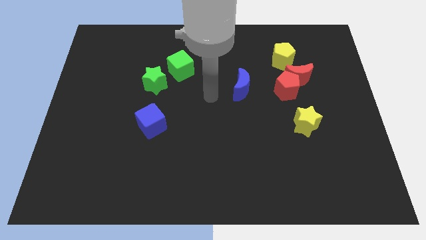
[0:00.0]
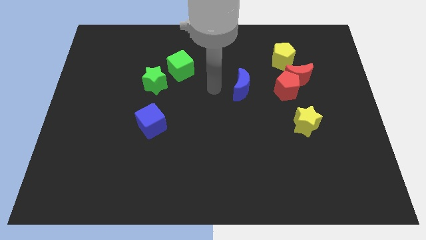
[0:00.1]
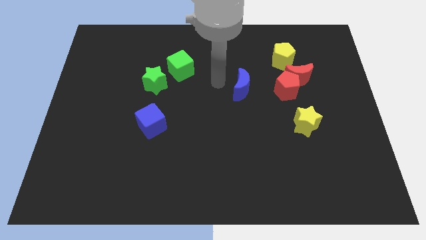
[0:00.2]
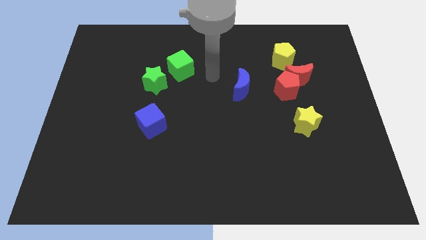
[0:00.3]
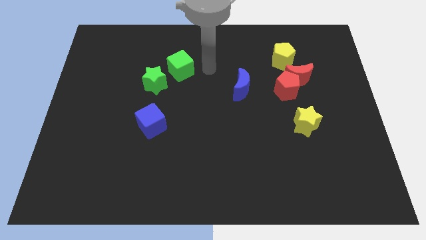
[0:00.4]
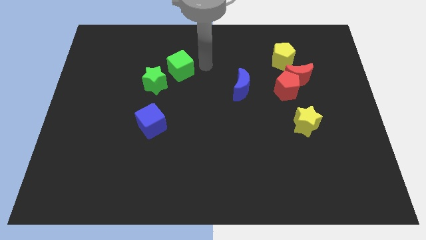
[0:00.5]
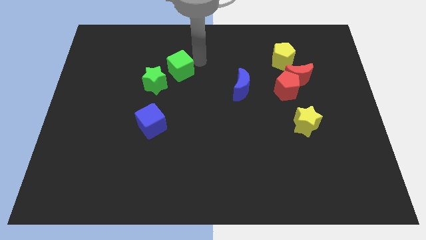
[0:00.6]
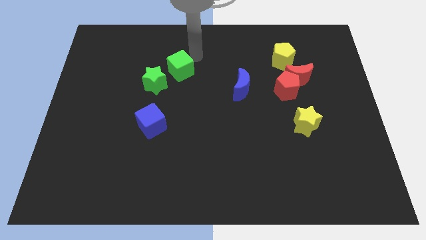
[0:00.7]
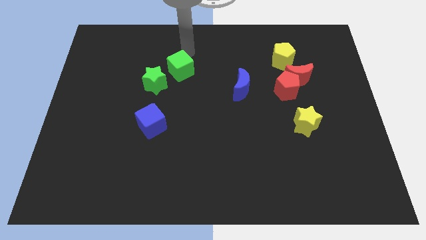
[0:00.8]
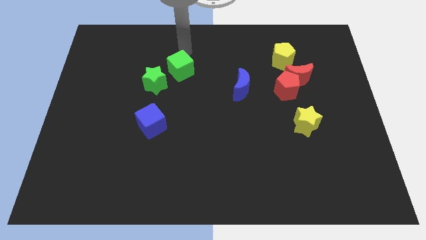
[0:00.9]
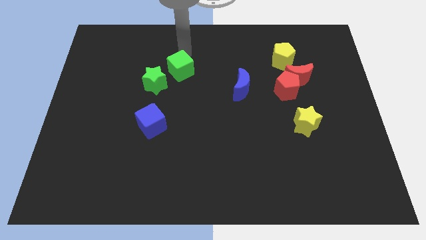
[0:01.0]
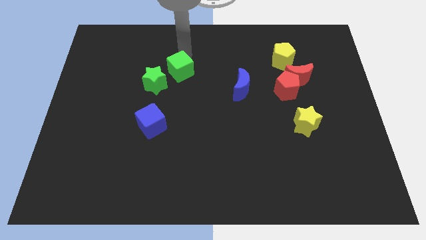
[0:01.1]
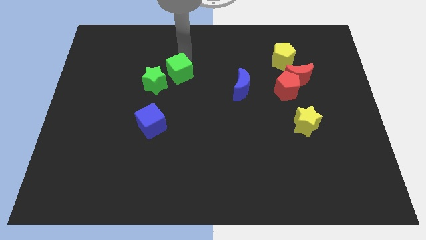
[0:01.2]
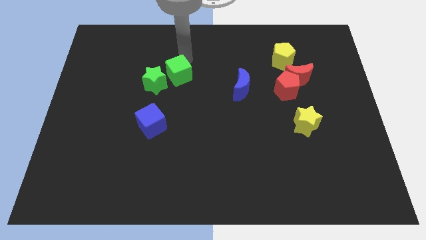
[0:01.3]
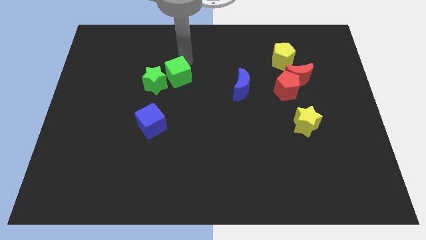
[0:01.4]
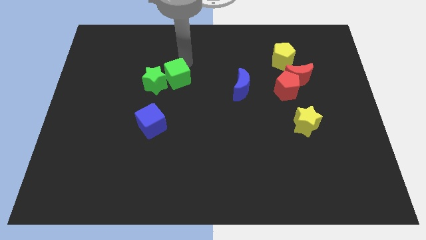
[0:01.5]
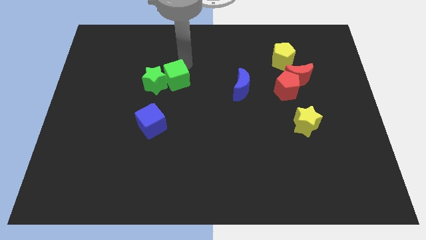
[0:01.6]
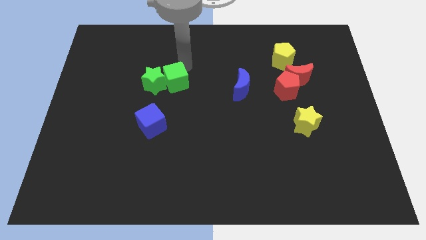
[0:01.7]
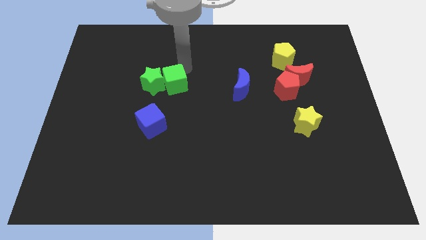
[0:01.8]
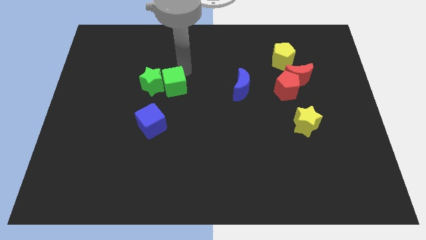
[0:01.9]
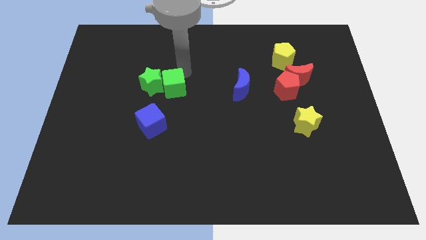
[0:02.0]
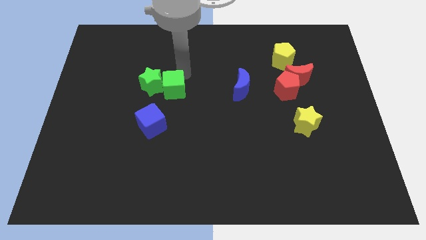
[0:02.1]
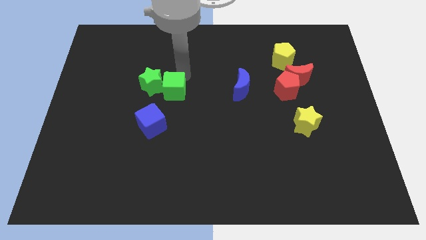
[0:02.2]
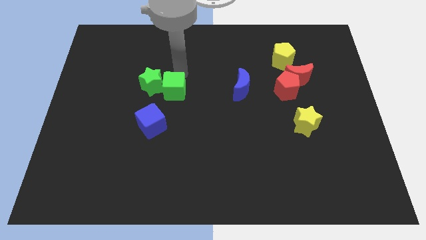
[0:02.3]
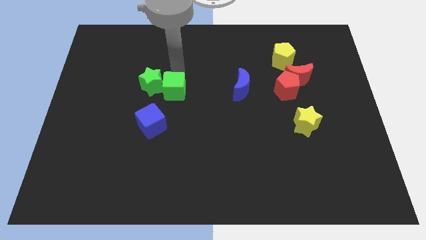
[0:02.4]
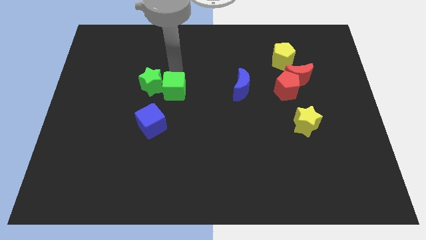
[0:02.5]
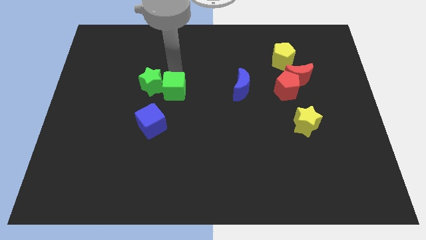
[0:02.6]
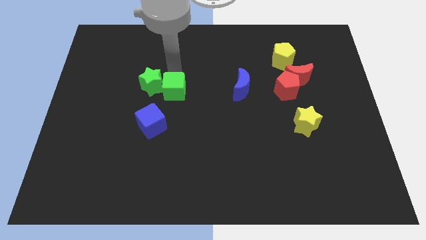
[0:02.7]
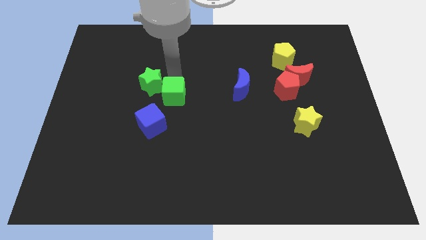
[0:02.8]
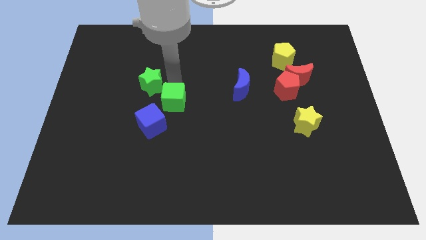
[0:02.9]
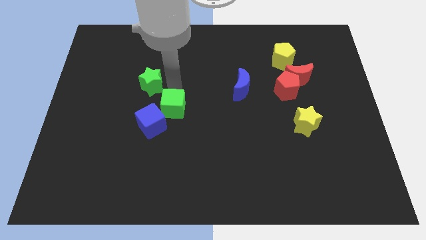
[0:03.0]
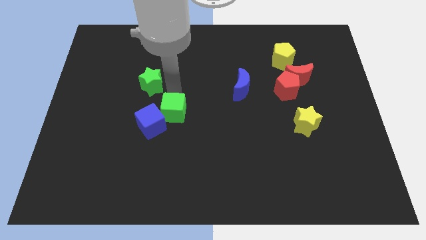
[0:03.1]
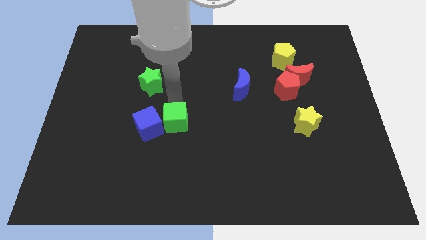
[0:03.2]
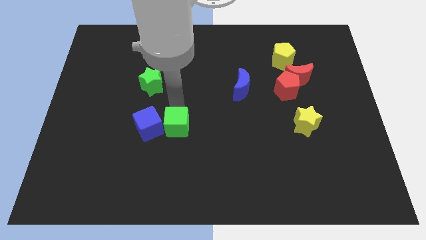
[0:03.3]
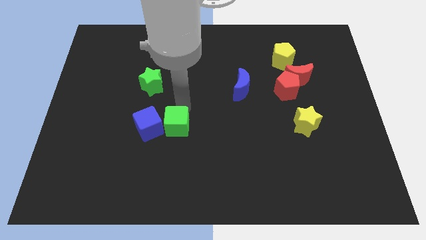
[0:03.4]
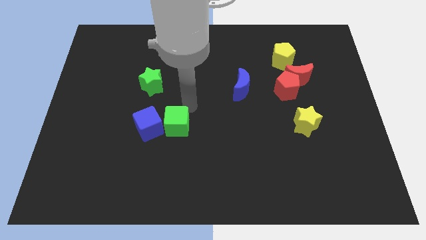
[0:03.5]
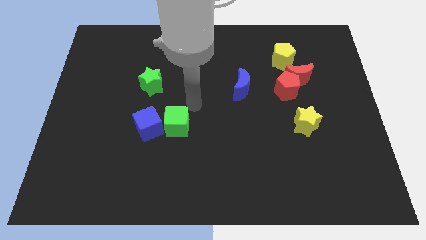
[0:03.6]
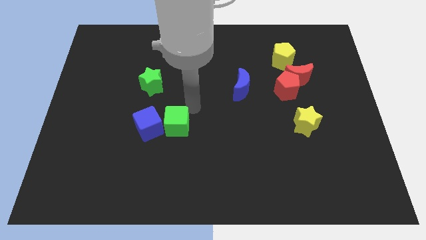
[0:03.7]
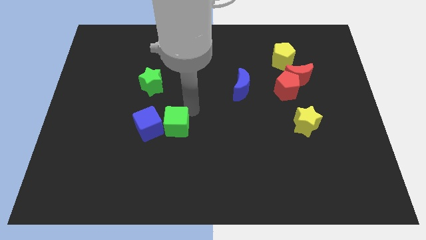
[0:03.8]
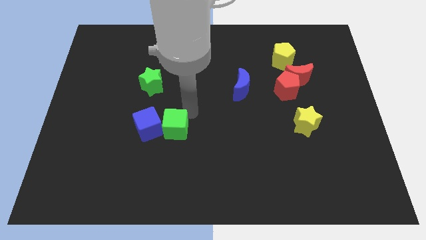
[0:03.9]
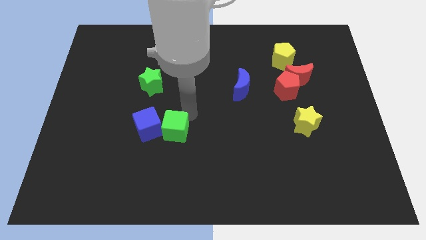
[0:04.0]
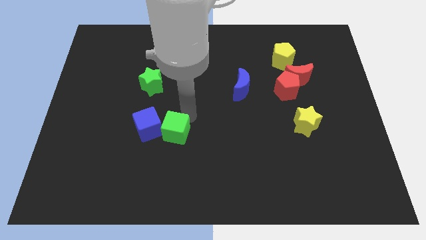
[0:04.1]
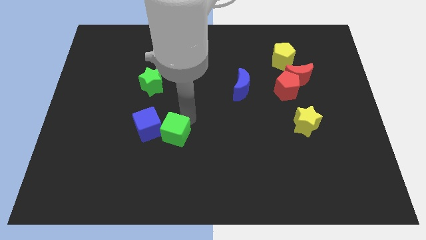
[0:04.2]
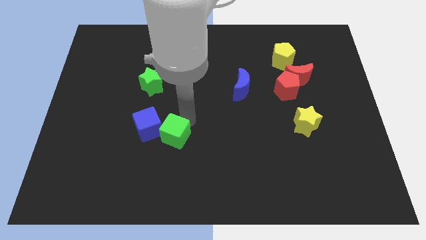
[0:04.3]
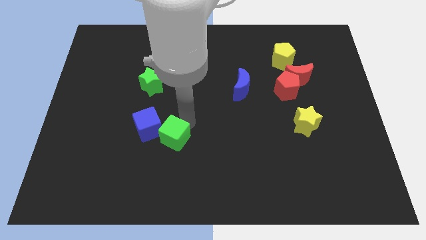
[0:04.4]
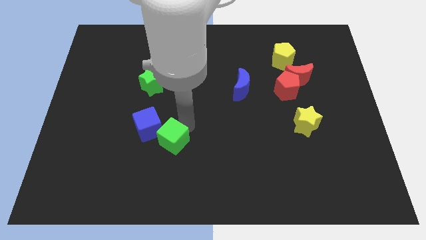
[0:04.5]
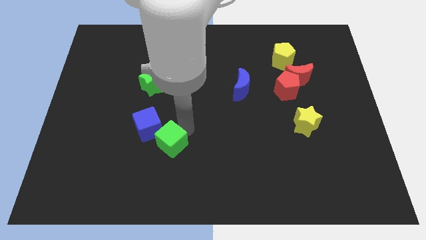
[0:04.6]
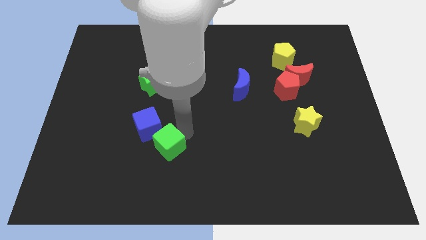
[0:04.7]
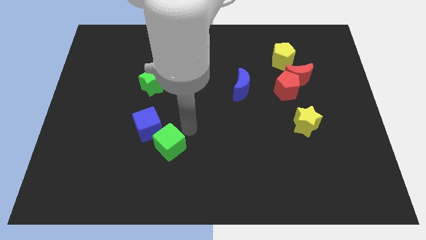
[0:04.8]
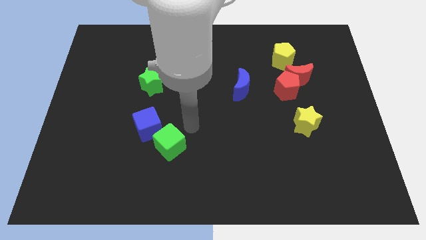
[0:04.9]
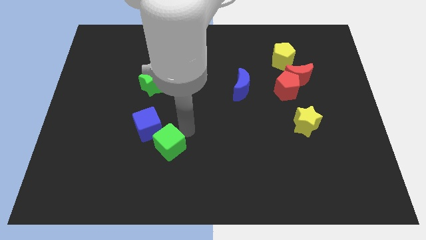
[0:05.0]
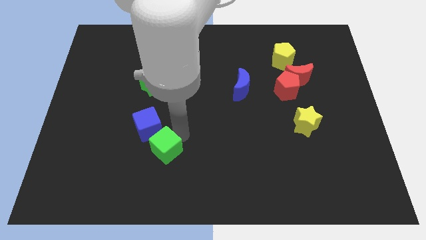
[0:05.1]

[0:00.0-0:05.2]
put the green cube to the bottom of the blue cube

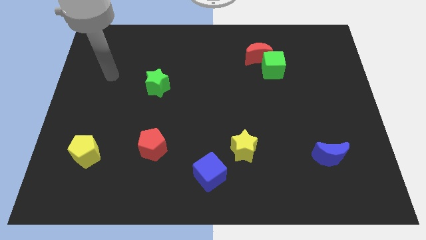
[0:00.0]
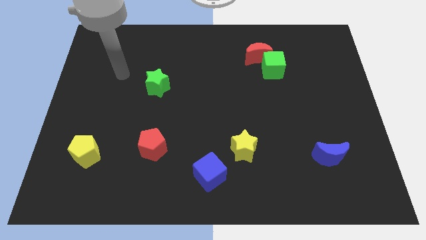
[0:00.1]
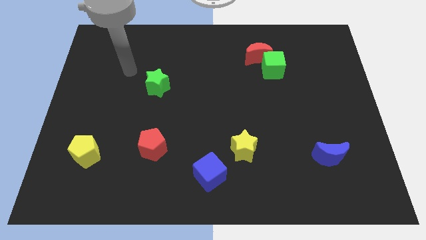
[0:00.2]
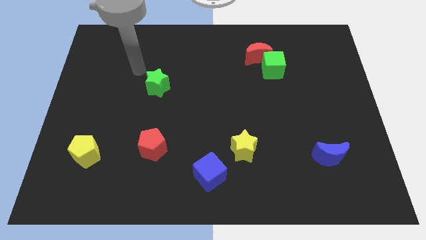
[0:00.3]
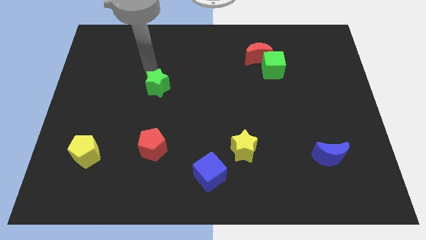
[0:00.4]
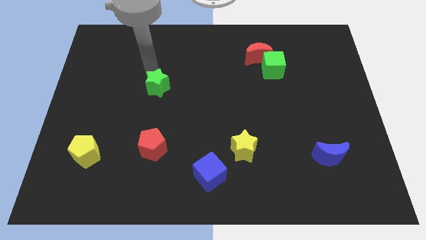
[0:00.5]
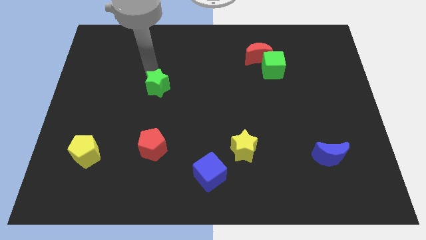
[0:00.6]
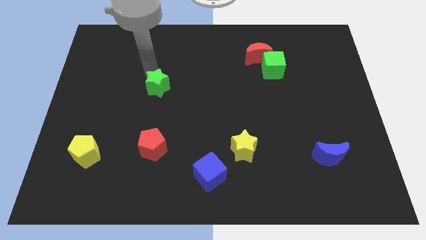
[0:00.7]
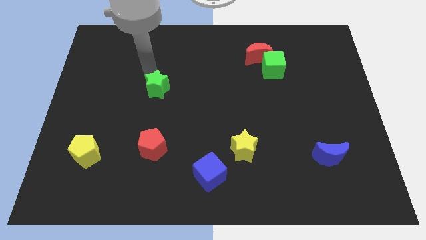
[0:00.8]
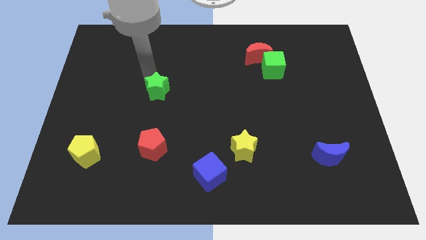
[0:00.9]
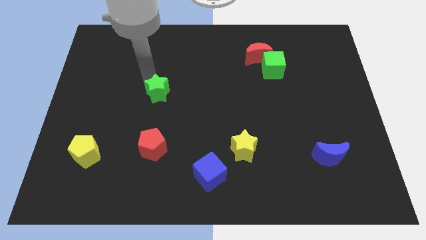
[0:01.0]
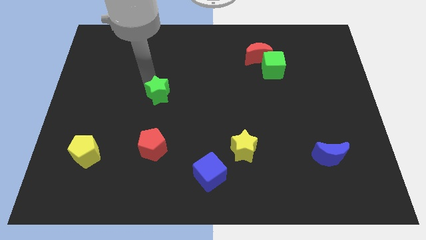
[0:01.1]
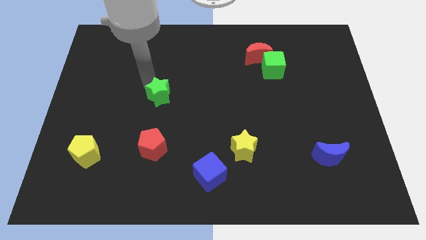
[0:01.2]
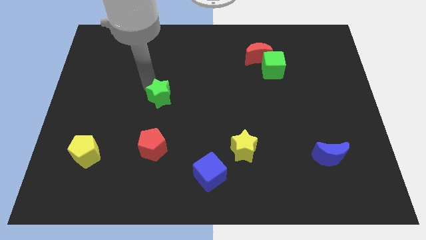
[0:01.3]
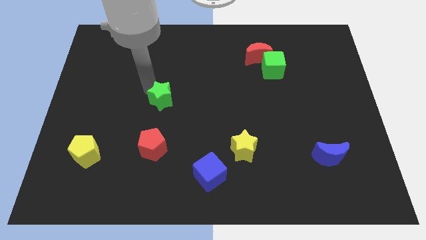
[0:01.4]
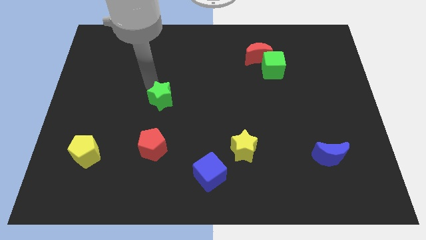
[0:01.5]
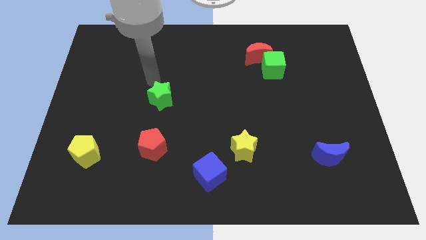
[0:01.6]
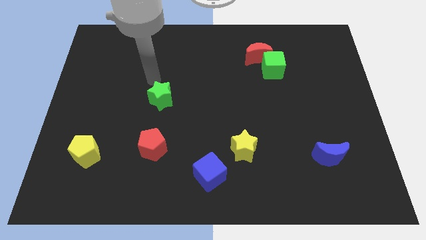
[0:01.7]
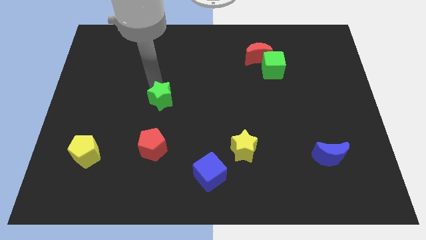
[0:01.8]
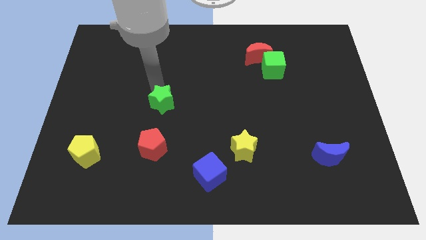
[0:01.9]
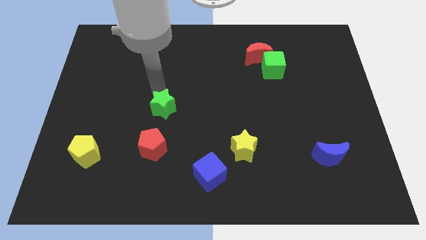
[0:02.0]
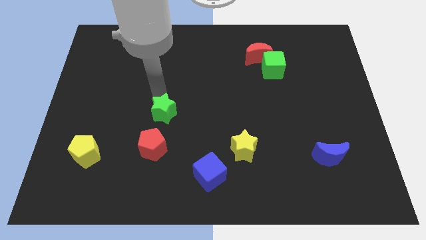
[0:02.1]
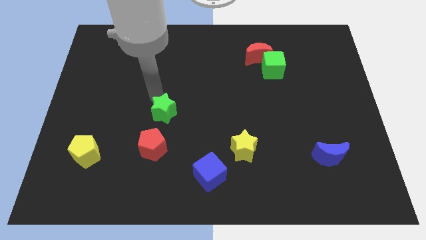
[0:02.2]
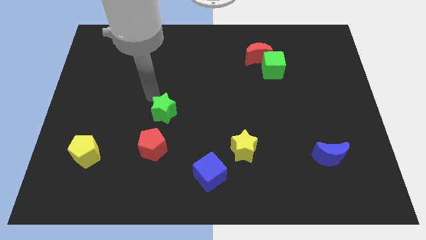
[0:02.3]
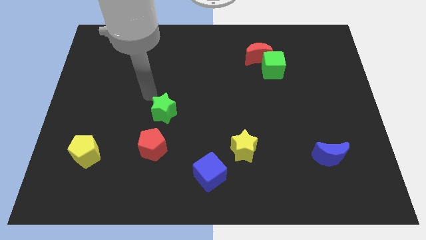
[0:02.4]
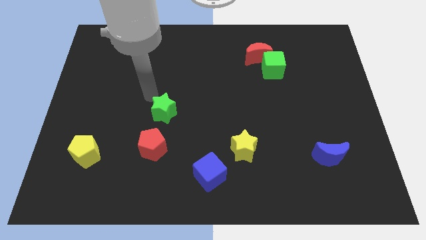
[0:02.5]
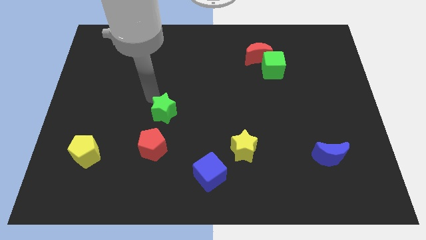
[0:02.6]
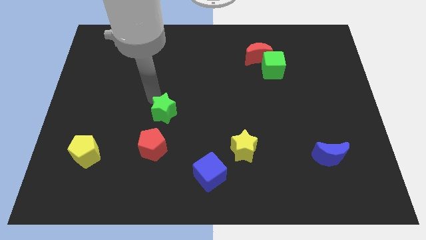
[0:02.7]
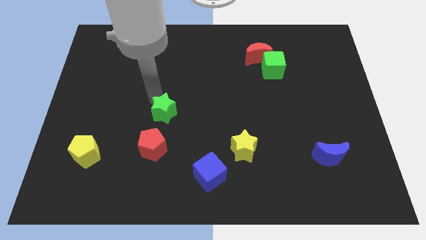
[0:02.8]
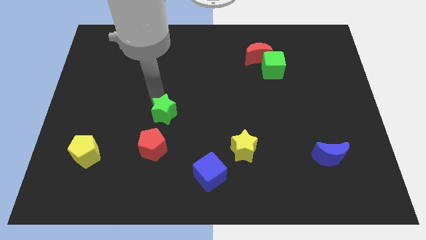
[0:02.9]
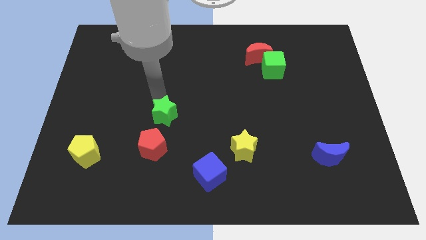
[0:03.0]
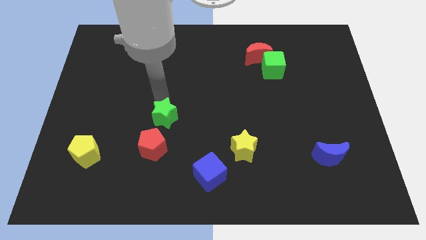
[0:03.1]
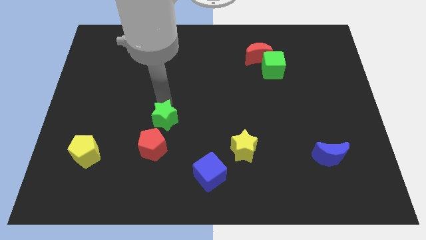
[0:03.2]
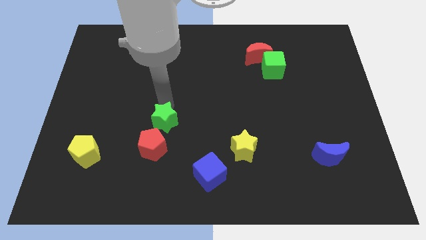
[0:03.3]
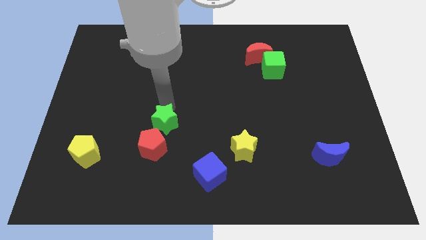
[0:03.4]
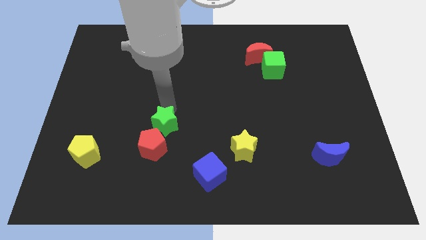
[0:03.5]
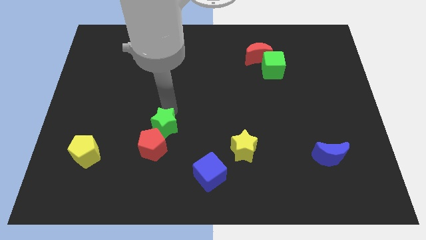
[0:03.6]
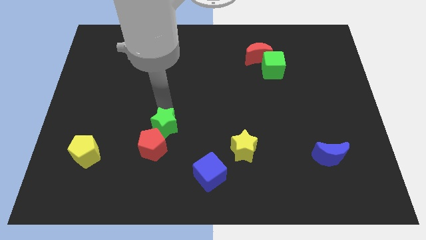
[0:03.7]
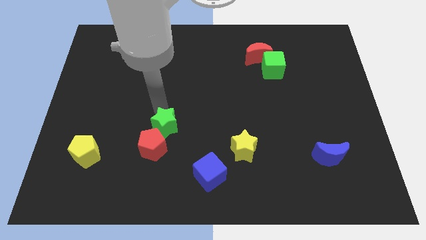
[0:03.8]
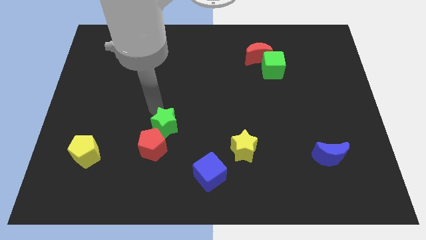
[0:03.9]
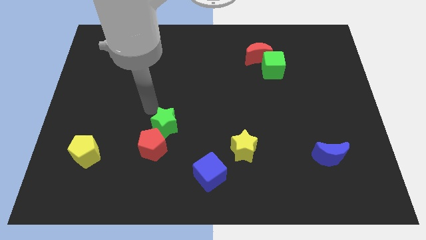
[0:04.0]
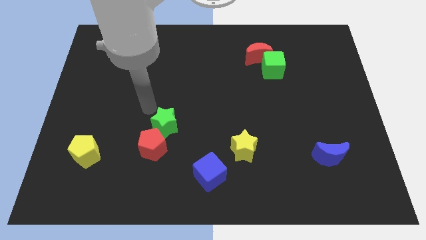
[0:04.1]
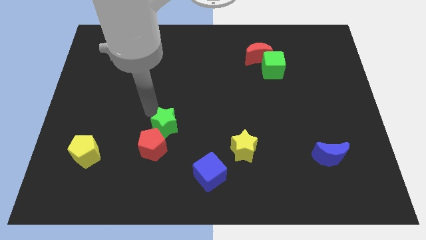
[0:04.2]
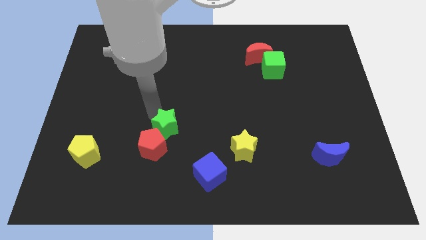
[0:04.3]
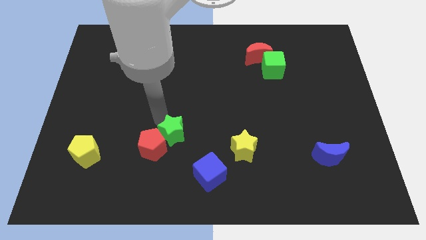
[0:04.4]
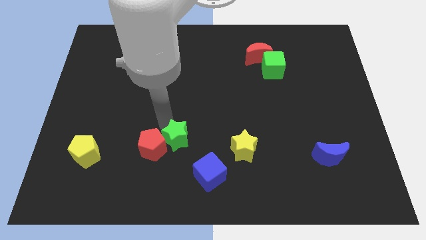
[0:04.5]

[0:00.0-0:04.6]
move the green star to the top left side of the blue cube
